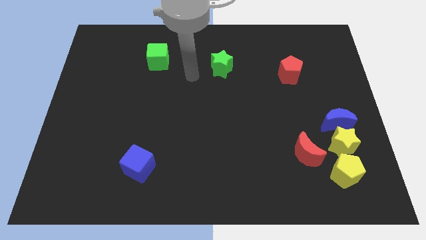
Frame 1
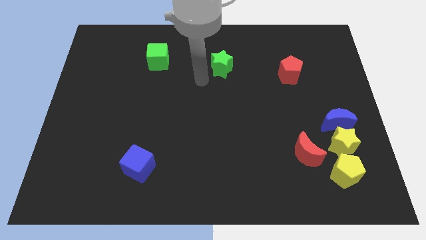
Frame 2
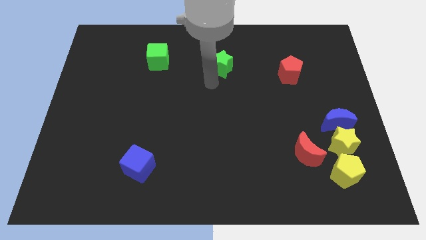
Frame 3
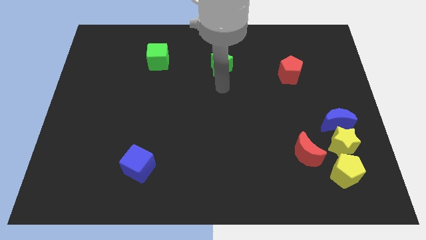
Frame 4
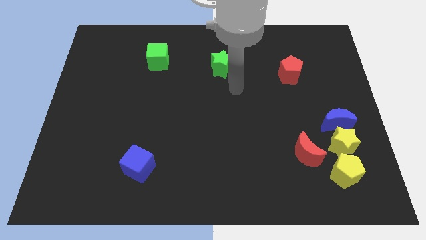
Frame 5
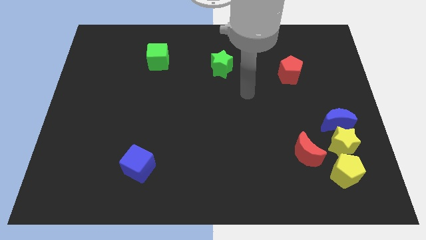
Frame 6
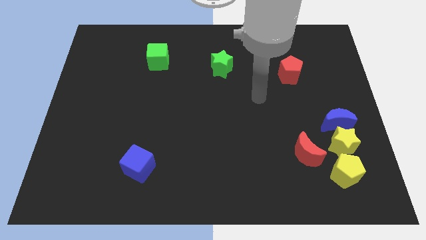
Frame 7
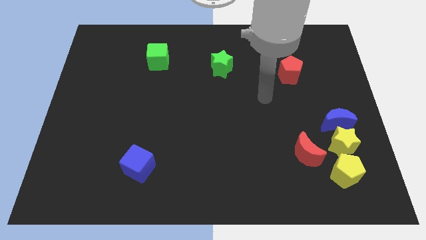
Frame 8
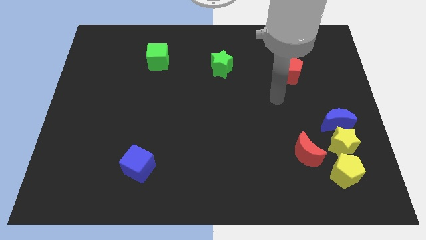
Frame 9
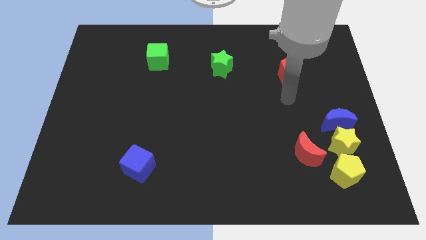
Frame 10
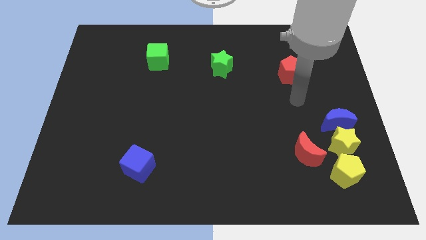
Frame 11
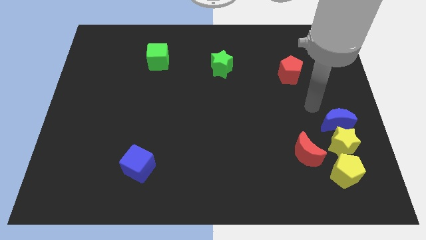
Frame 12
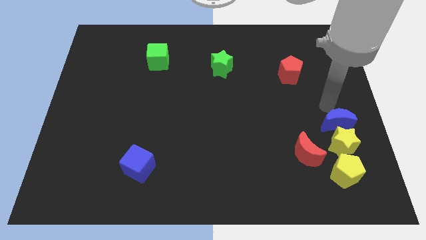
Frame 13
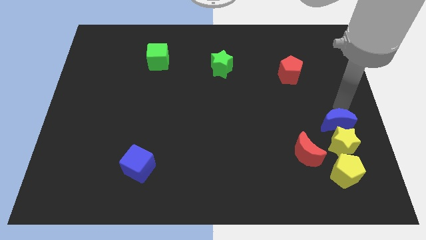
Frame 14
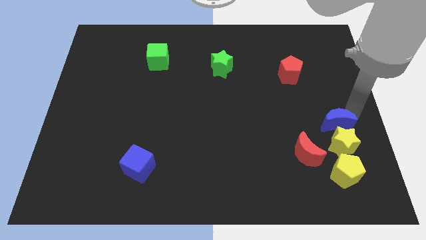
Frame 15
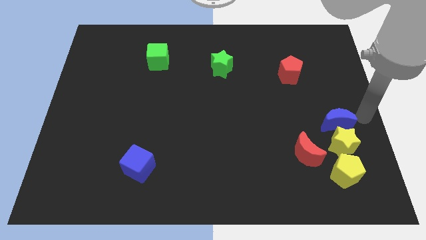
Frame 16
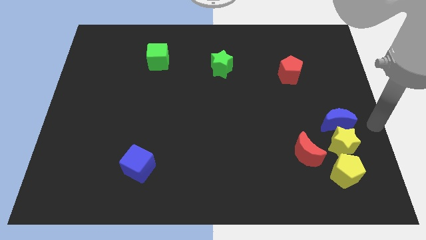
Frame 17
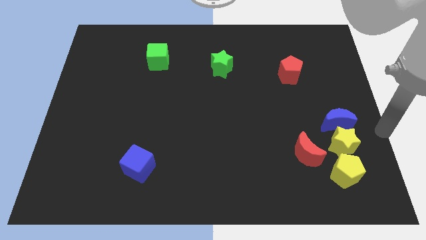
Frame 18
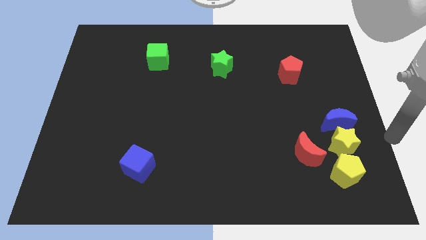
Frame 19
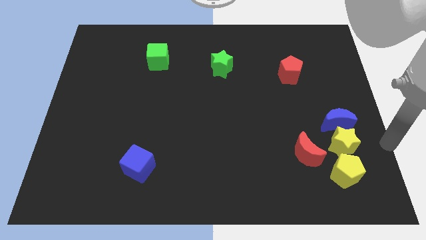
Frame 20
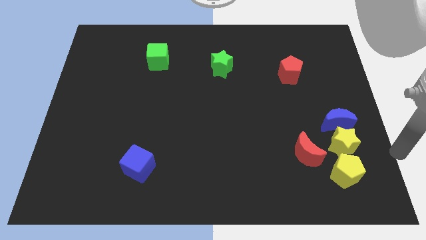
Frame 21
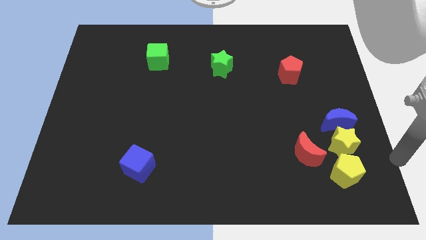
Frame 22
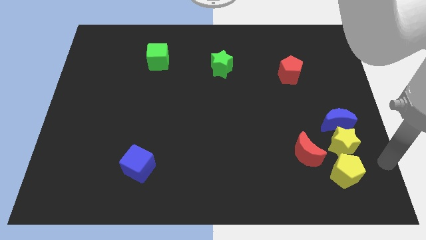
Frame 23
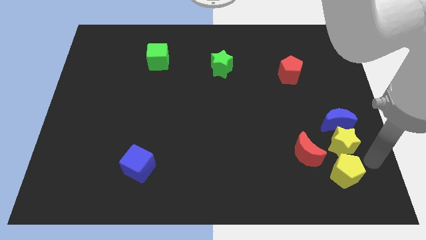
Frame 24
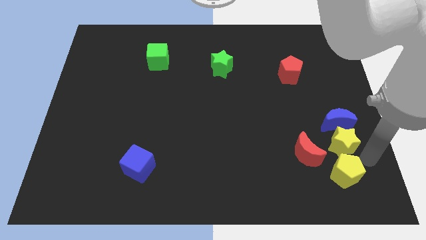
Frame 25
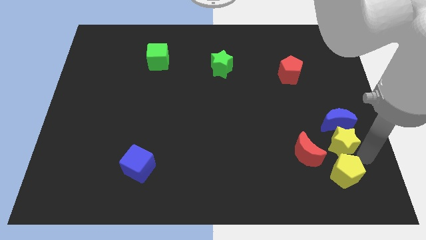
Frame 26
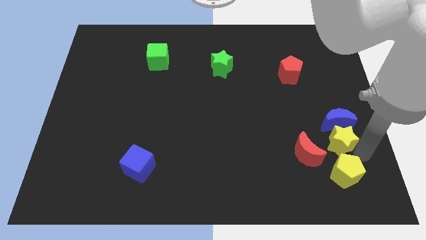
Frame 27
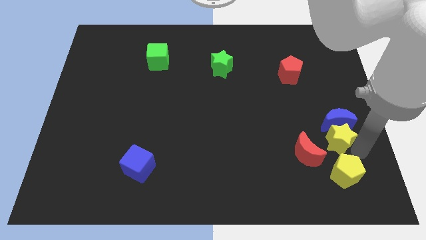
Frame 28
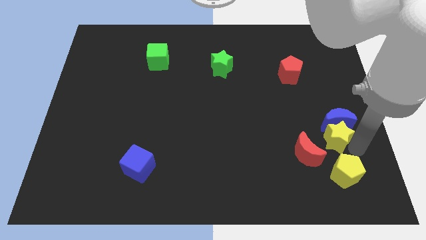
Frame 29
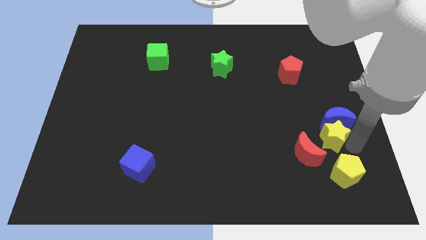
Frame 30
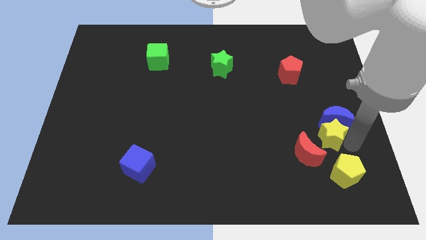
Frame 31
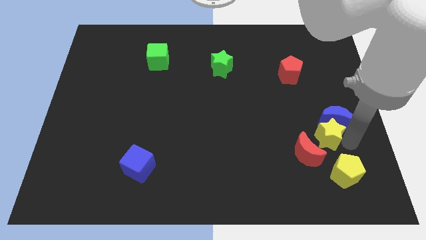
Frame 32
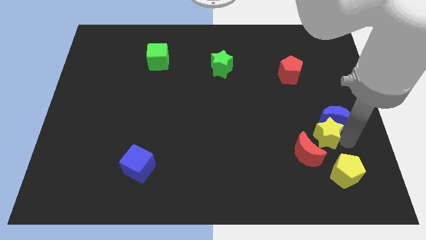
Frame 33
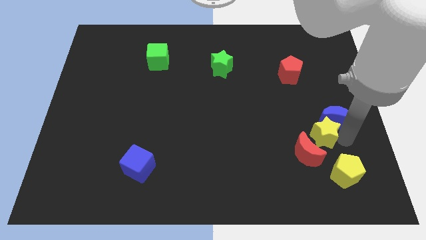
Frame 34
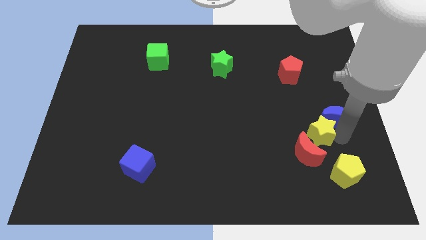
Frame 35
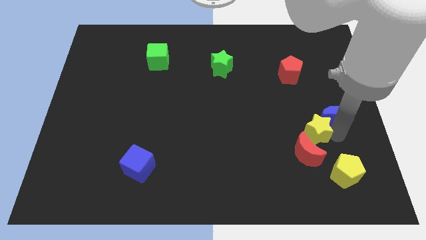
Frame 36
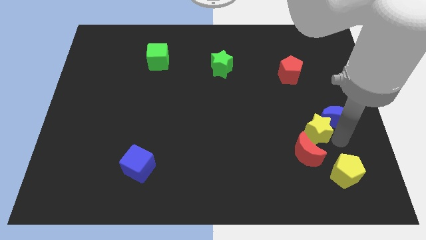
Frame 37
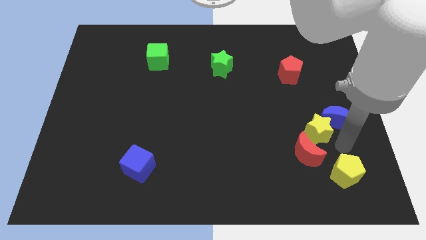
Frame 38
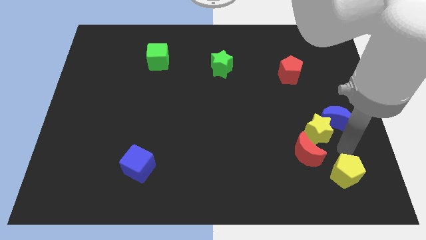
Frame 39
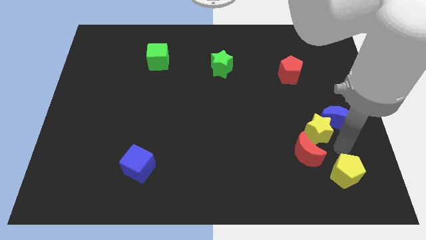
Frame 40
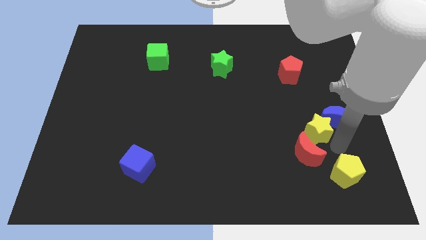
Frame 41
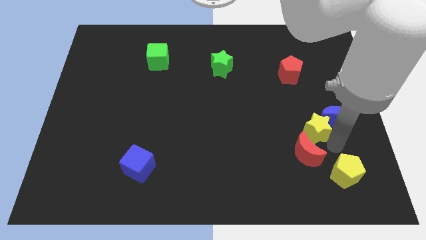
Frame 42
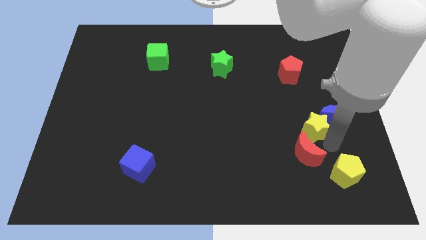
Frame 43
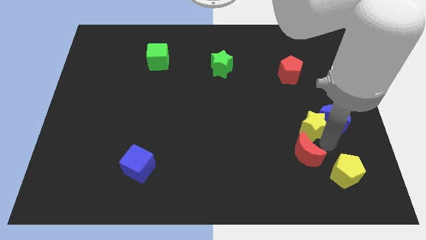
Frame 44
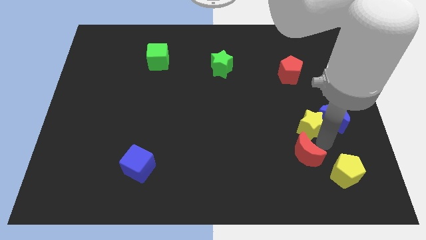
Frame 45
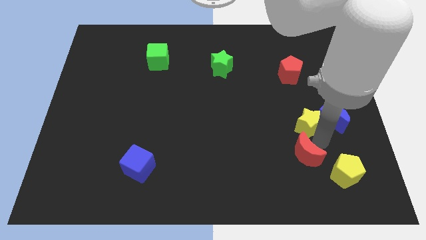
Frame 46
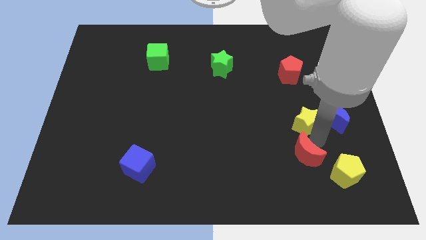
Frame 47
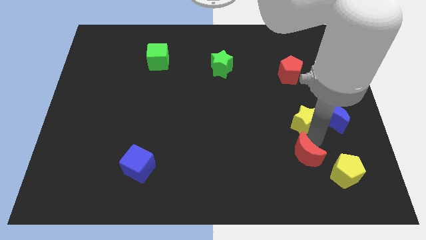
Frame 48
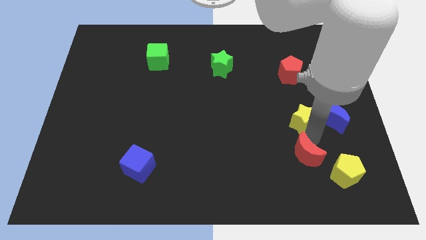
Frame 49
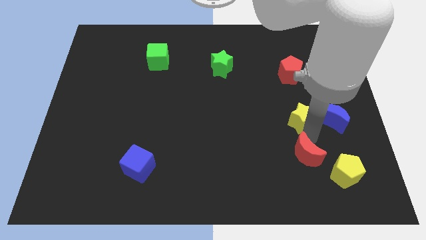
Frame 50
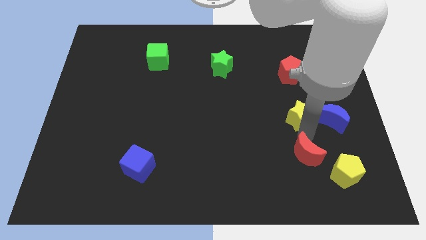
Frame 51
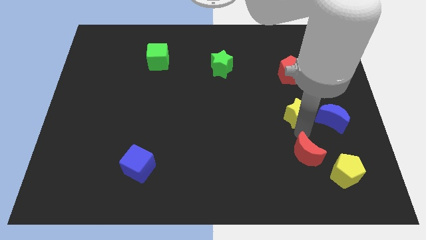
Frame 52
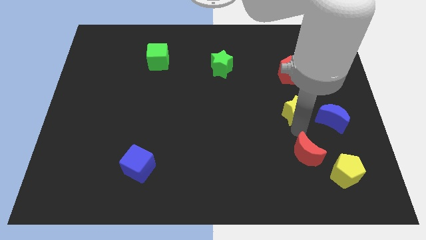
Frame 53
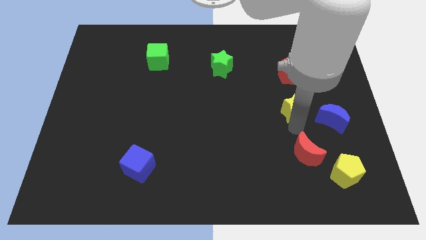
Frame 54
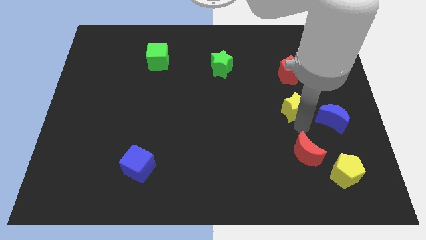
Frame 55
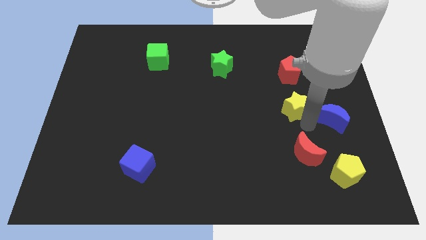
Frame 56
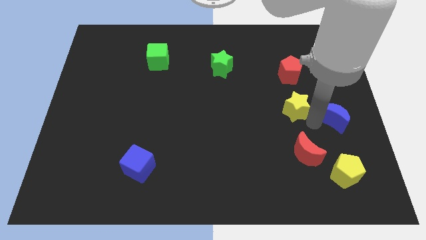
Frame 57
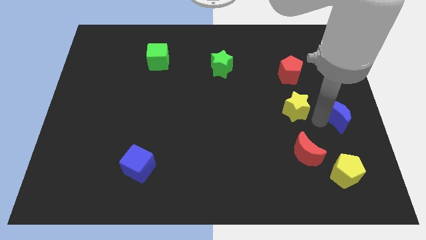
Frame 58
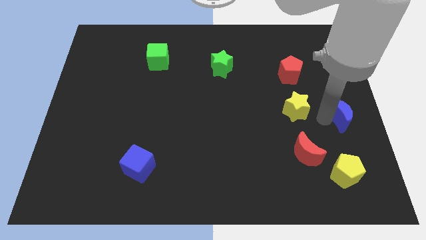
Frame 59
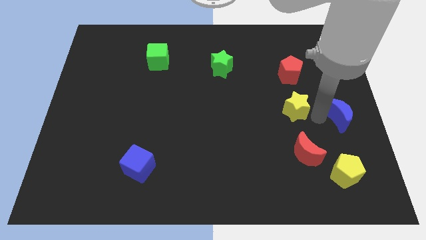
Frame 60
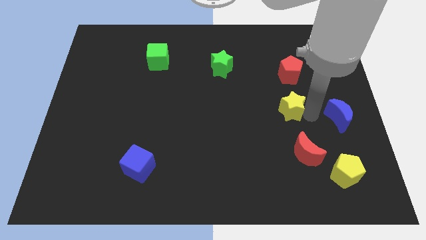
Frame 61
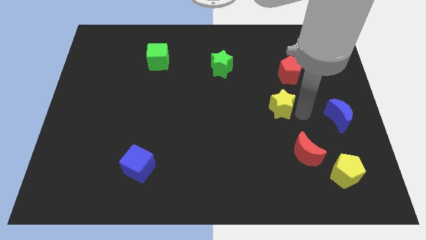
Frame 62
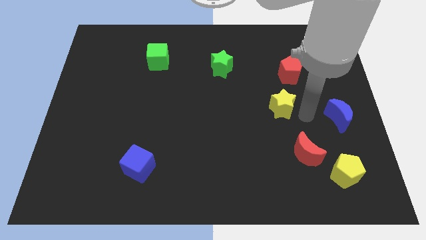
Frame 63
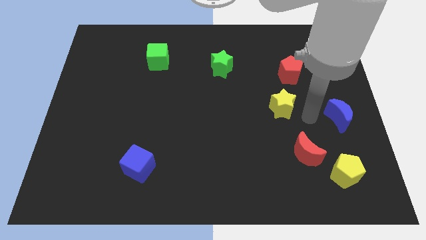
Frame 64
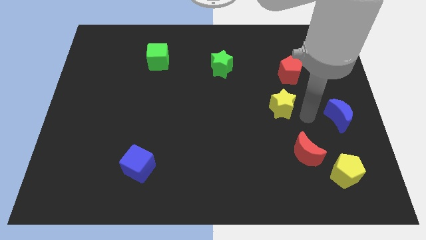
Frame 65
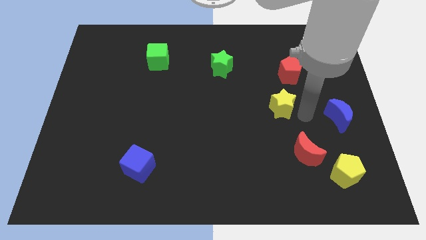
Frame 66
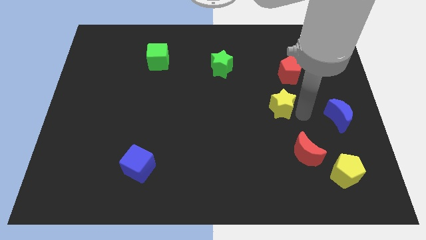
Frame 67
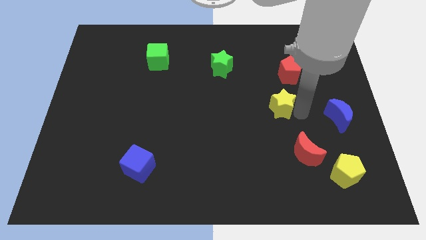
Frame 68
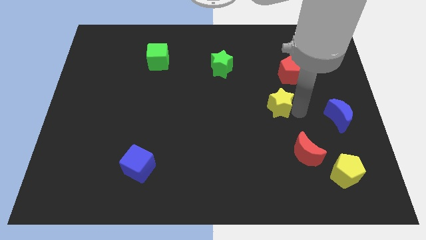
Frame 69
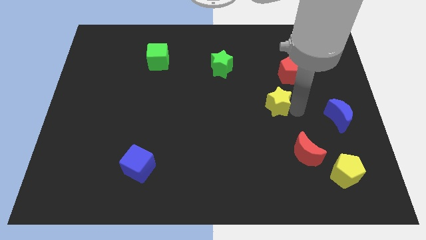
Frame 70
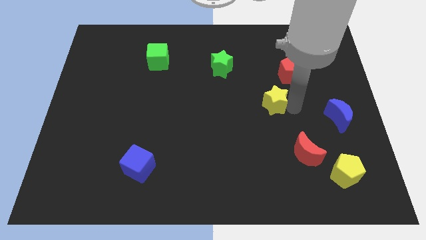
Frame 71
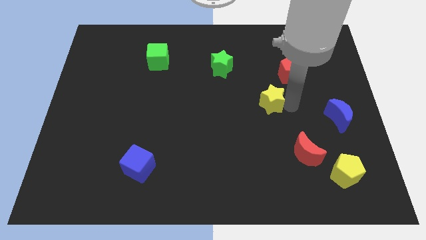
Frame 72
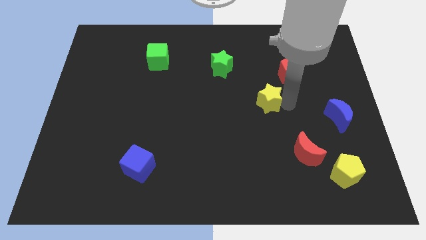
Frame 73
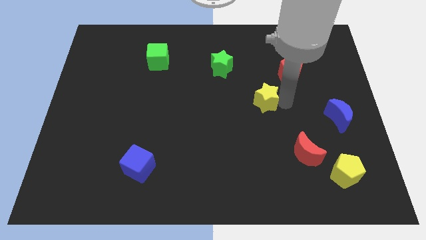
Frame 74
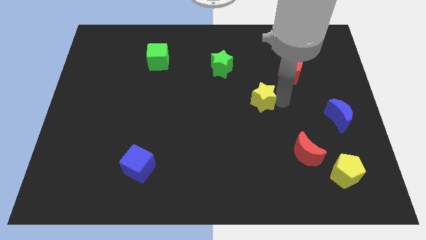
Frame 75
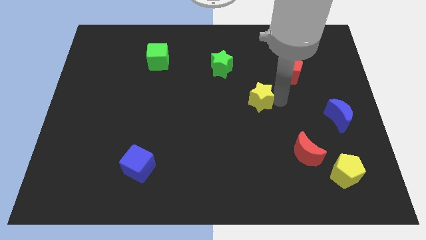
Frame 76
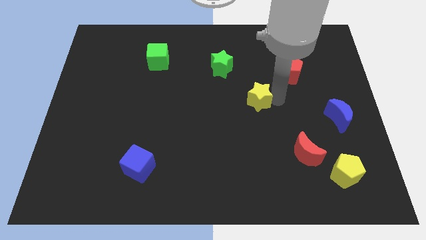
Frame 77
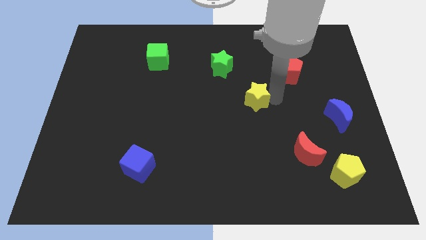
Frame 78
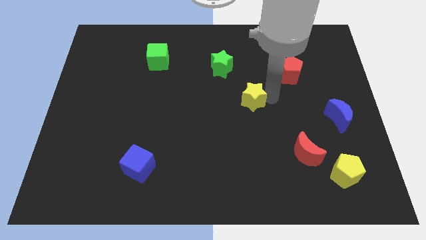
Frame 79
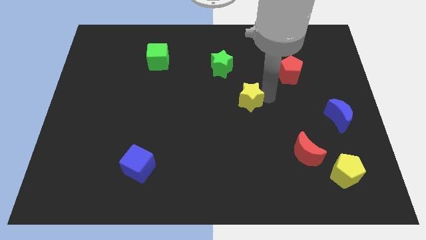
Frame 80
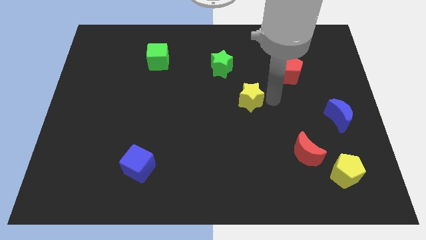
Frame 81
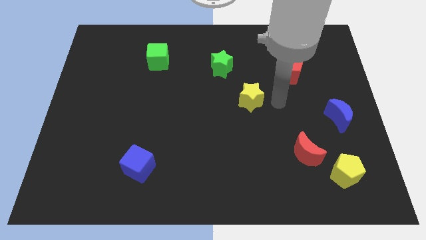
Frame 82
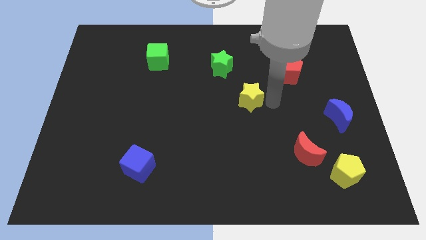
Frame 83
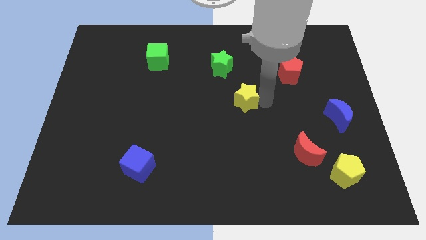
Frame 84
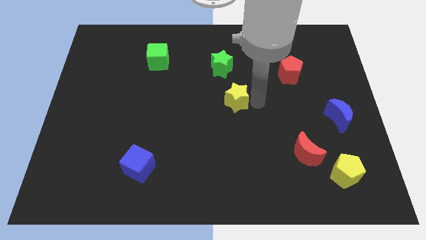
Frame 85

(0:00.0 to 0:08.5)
put the yellow star below the green star
